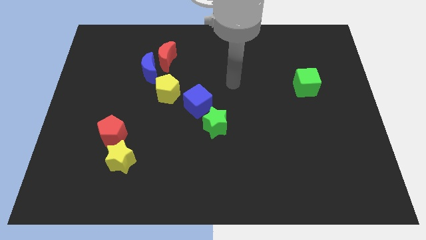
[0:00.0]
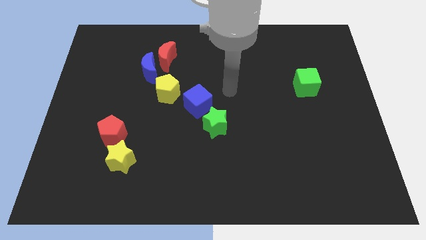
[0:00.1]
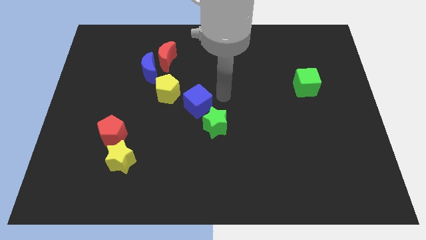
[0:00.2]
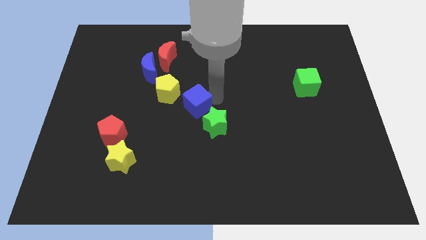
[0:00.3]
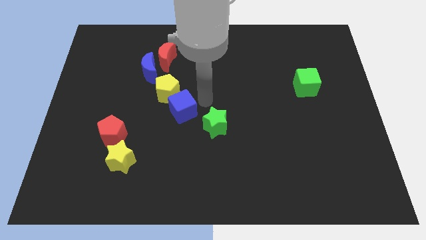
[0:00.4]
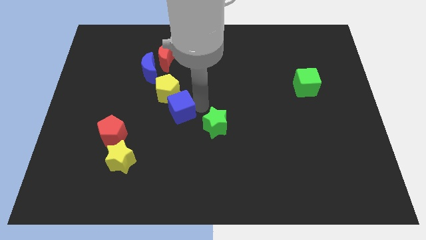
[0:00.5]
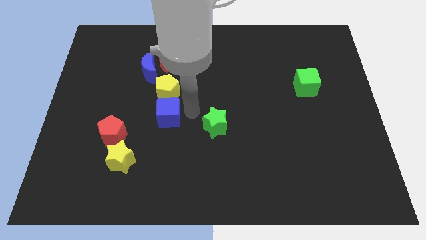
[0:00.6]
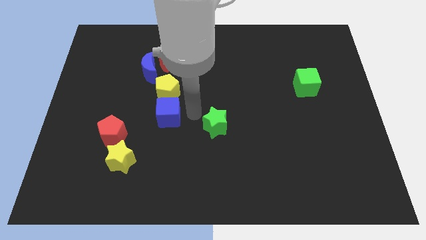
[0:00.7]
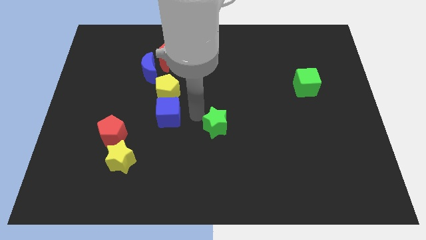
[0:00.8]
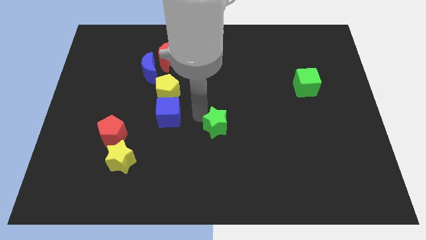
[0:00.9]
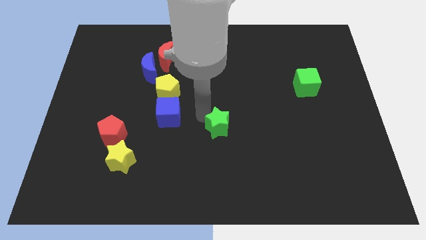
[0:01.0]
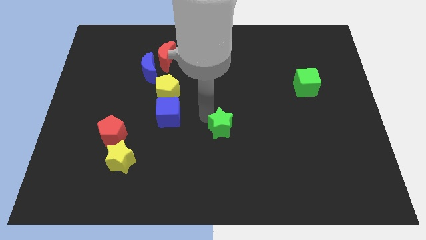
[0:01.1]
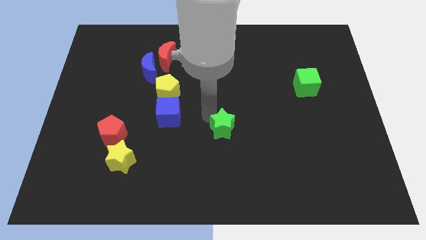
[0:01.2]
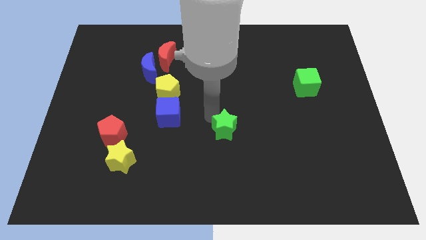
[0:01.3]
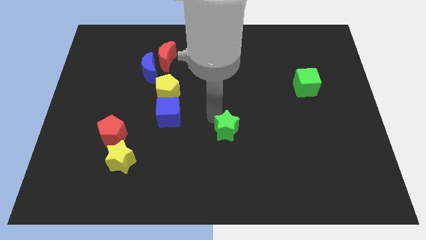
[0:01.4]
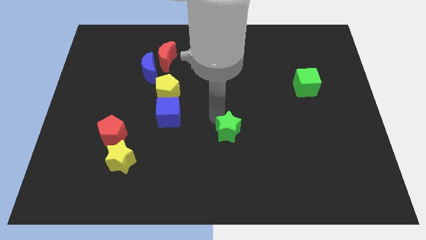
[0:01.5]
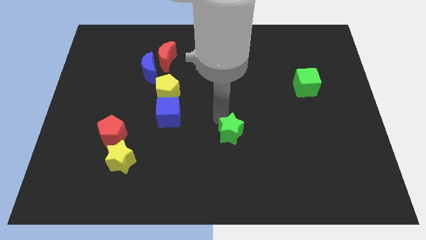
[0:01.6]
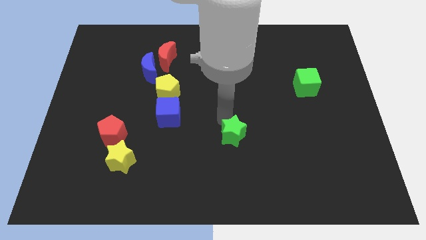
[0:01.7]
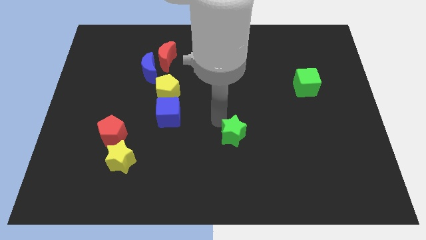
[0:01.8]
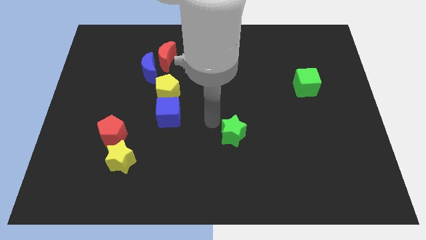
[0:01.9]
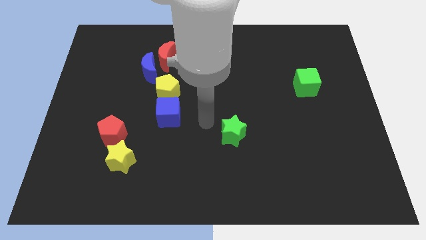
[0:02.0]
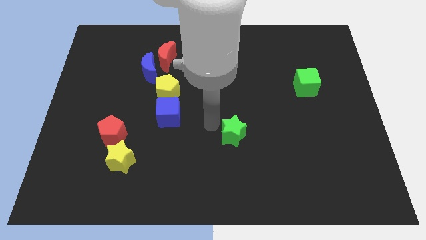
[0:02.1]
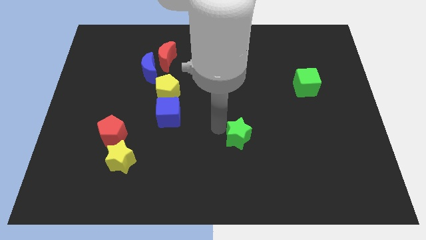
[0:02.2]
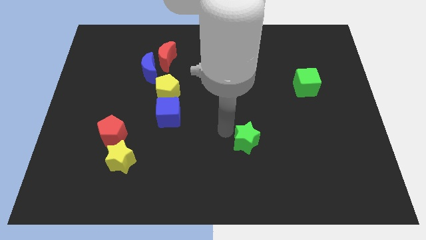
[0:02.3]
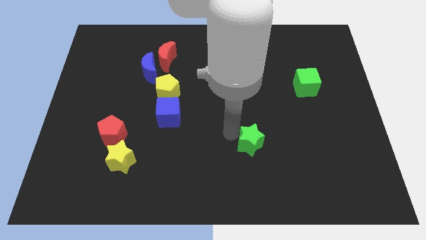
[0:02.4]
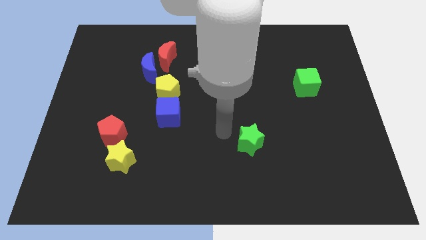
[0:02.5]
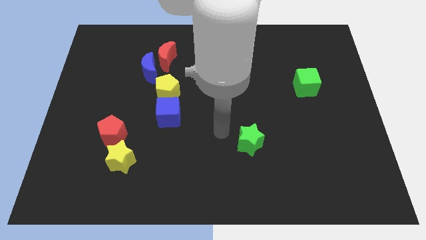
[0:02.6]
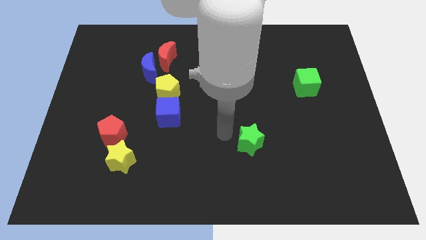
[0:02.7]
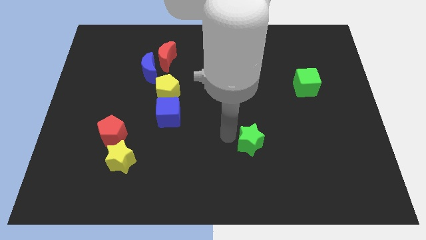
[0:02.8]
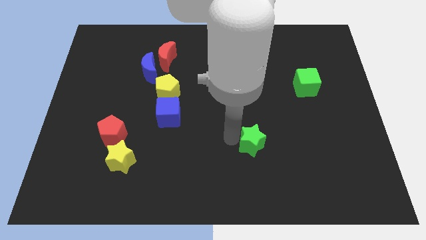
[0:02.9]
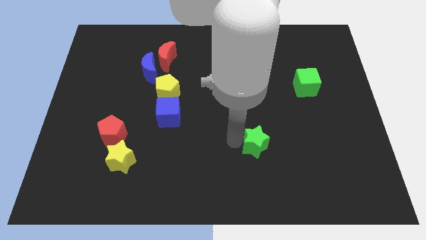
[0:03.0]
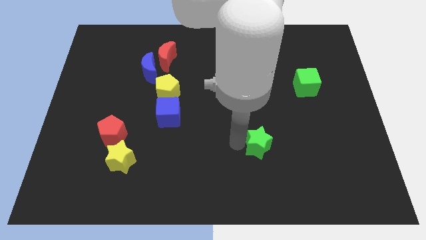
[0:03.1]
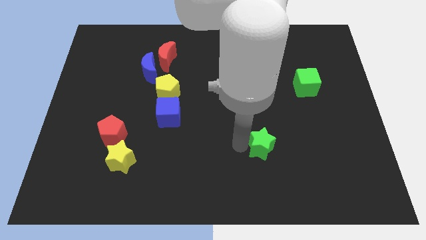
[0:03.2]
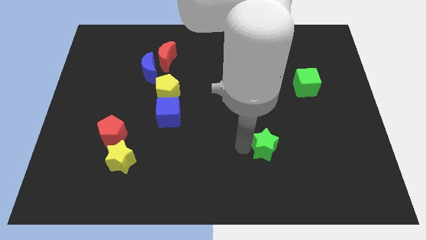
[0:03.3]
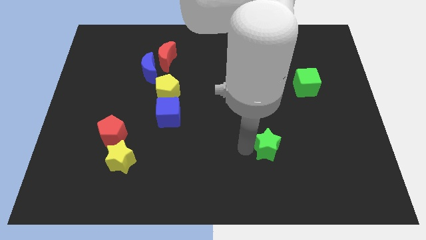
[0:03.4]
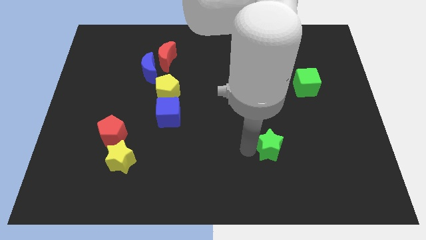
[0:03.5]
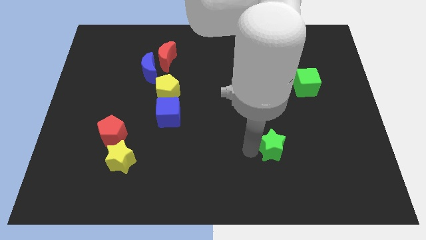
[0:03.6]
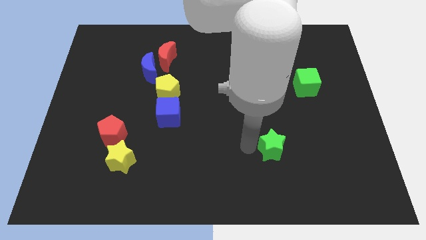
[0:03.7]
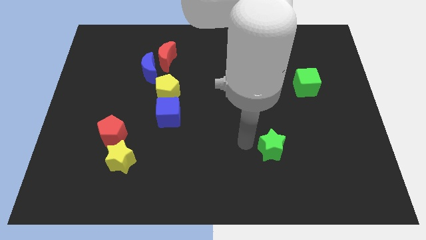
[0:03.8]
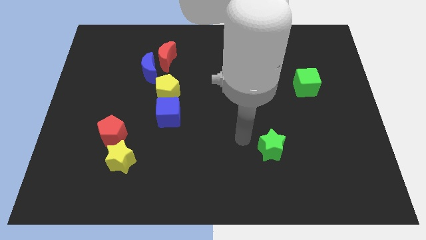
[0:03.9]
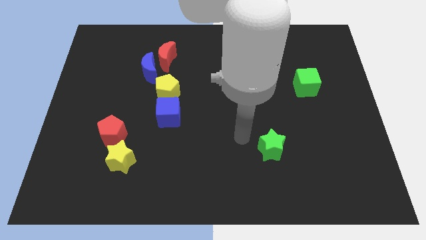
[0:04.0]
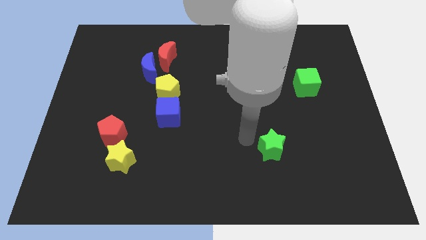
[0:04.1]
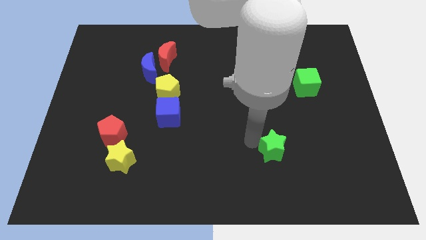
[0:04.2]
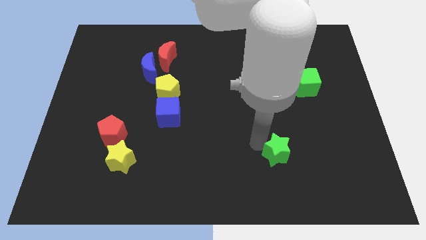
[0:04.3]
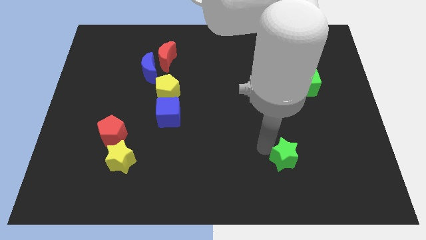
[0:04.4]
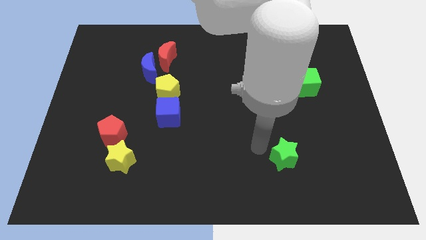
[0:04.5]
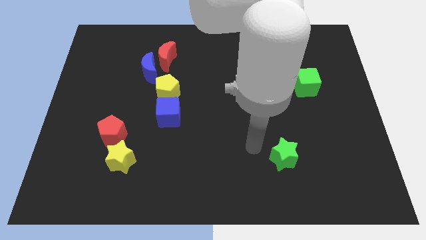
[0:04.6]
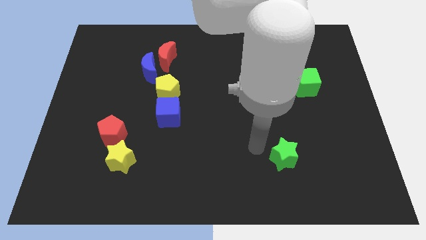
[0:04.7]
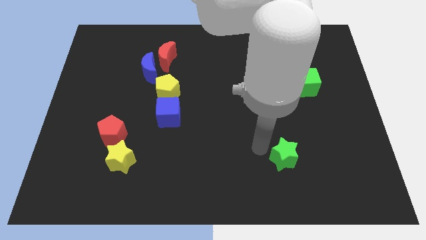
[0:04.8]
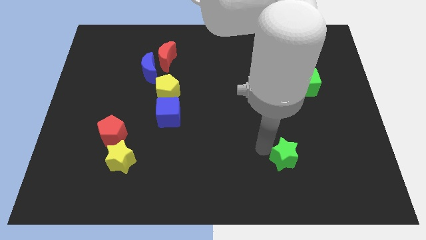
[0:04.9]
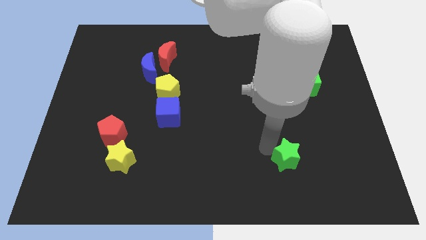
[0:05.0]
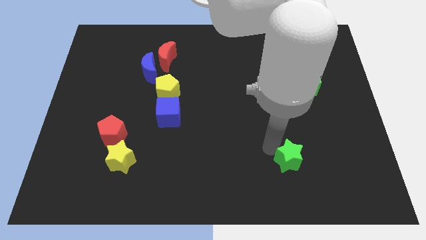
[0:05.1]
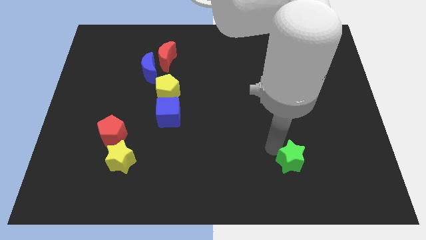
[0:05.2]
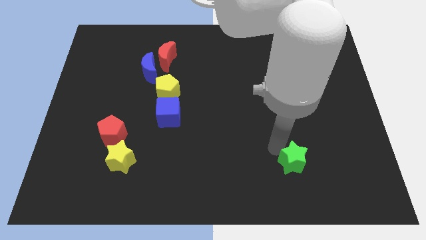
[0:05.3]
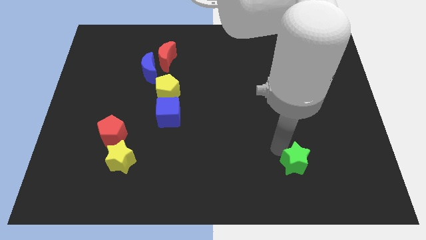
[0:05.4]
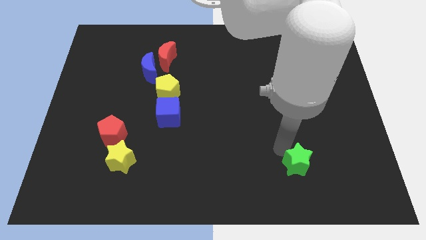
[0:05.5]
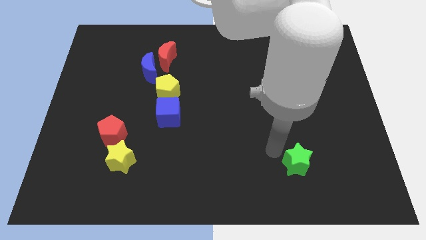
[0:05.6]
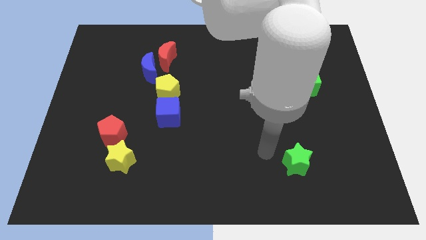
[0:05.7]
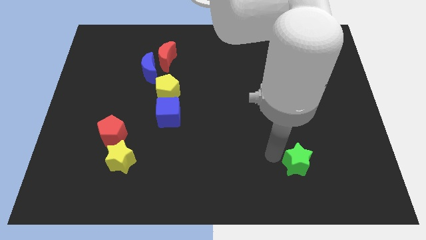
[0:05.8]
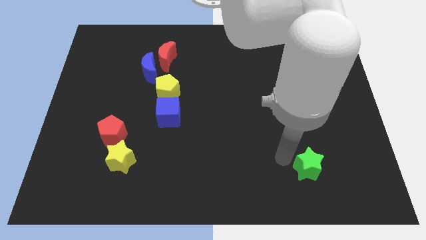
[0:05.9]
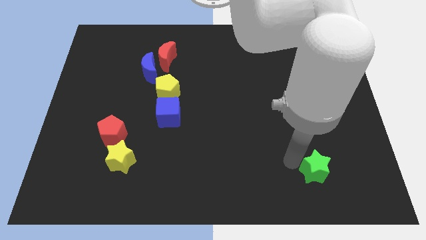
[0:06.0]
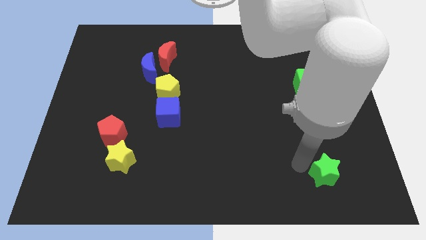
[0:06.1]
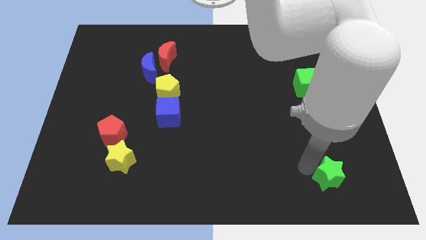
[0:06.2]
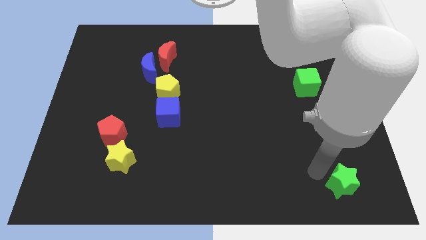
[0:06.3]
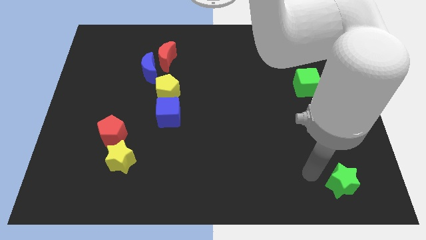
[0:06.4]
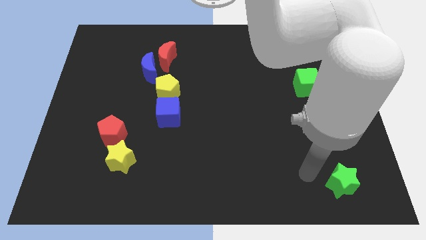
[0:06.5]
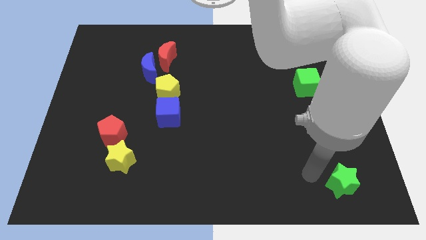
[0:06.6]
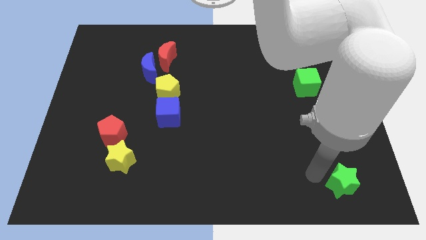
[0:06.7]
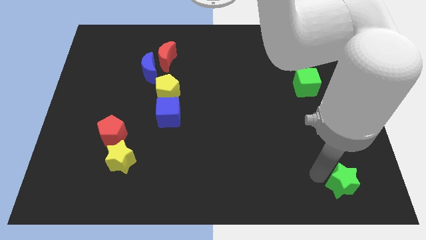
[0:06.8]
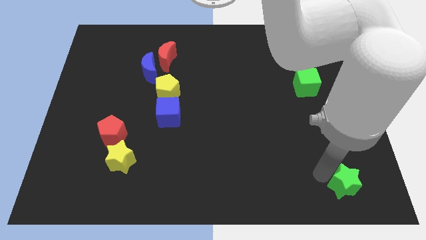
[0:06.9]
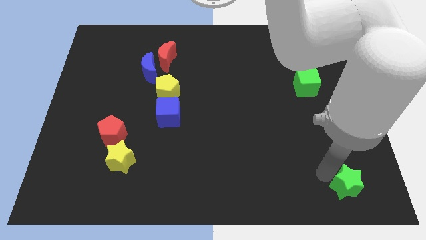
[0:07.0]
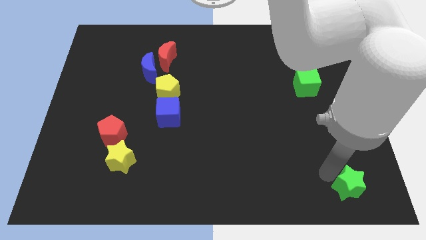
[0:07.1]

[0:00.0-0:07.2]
put the green star to the lower right corner
